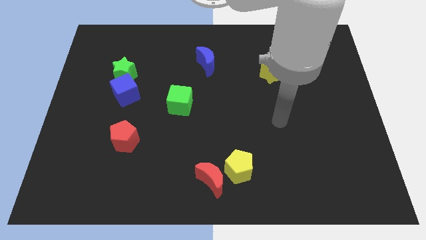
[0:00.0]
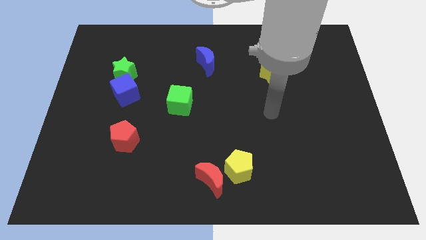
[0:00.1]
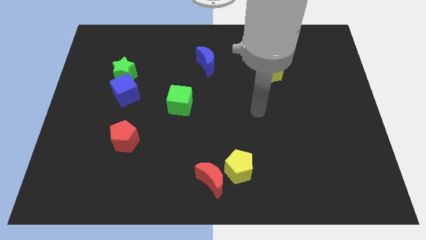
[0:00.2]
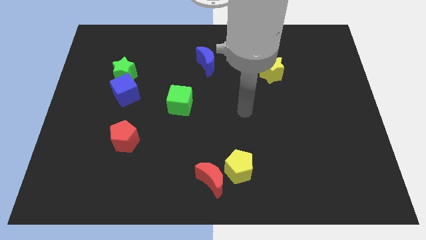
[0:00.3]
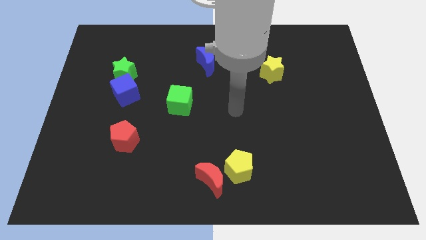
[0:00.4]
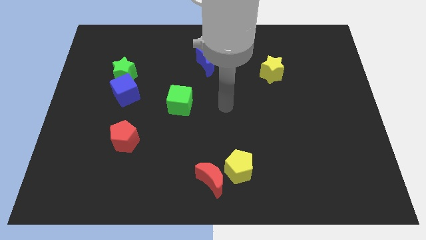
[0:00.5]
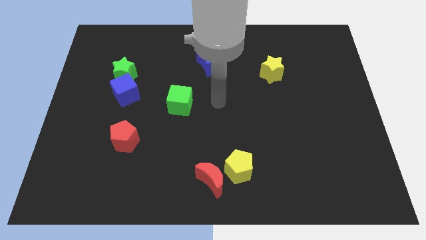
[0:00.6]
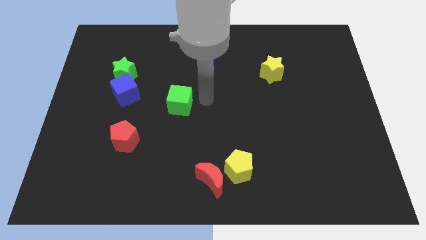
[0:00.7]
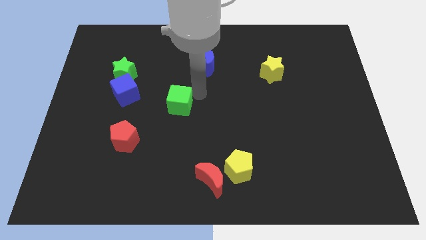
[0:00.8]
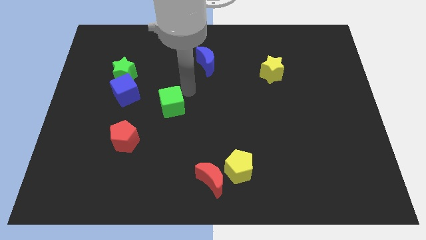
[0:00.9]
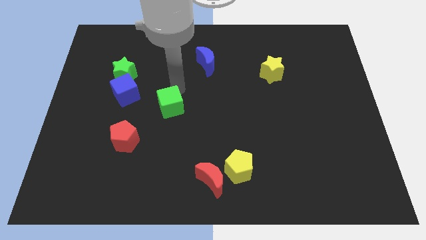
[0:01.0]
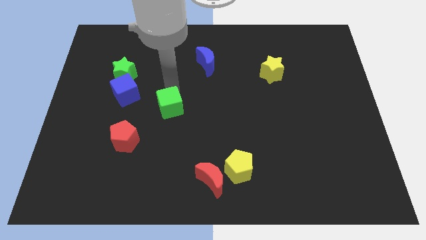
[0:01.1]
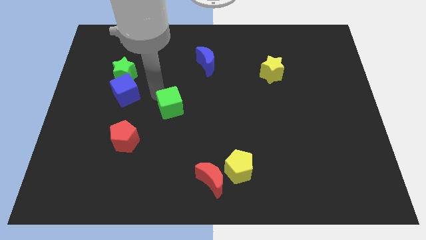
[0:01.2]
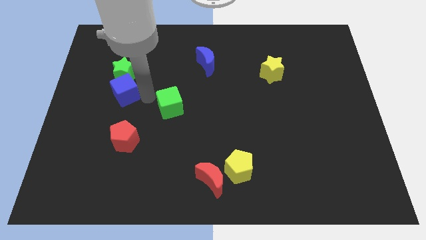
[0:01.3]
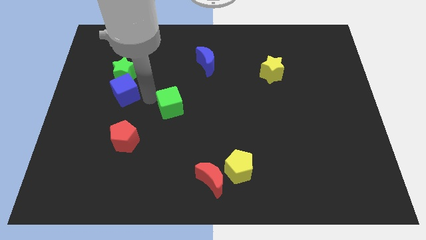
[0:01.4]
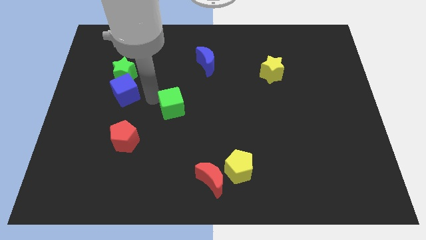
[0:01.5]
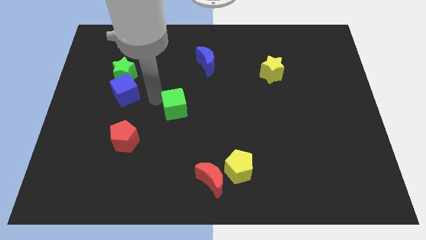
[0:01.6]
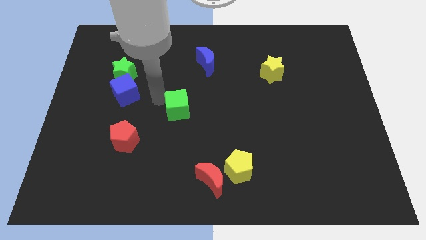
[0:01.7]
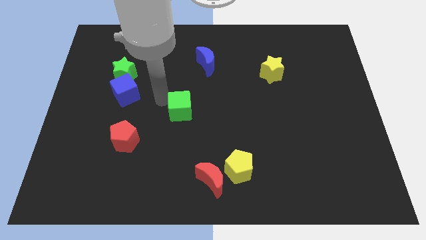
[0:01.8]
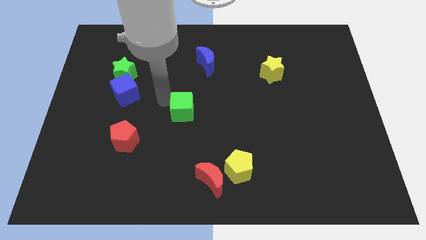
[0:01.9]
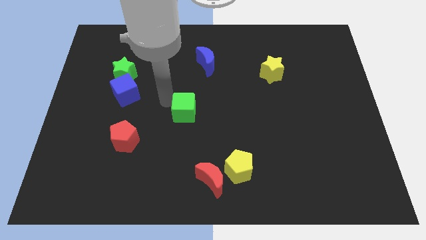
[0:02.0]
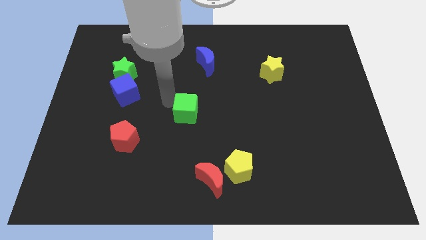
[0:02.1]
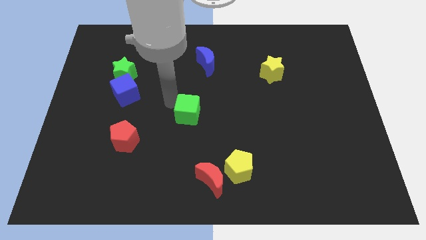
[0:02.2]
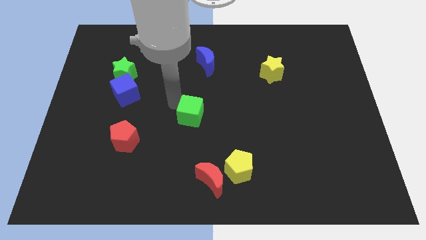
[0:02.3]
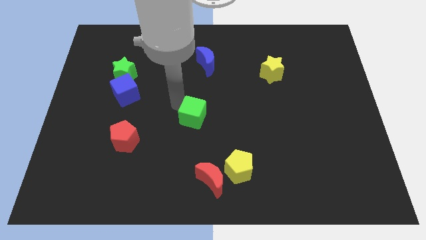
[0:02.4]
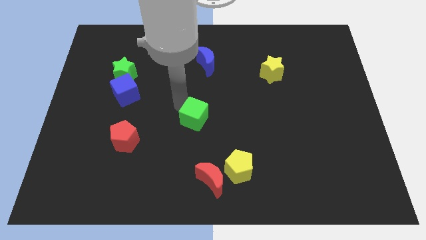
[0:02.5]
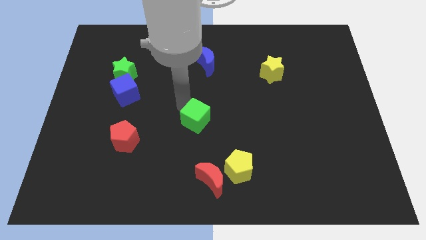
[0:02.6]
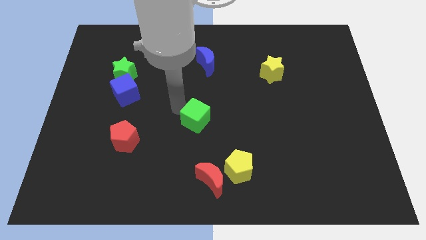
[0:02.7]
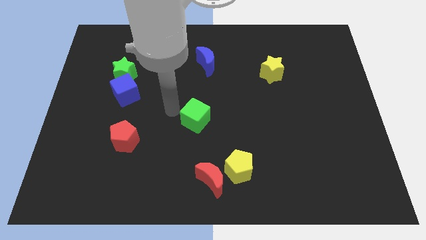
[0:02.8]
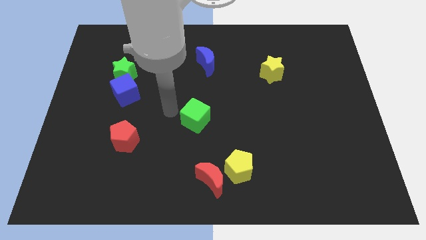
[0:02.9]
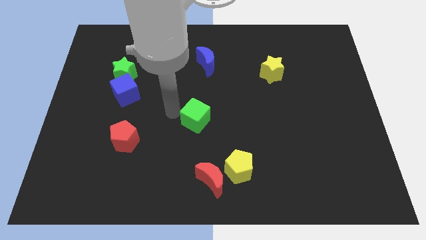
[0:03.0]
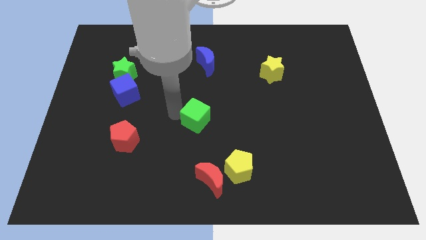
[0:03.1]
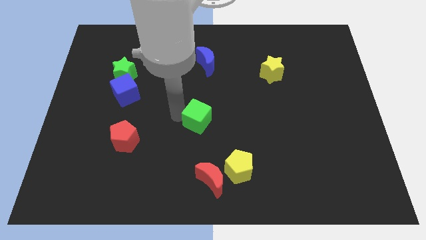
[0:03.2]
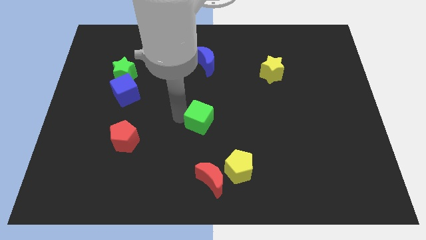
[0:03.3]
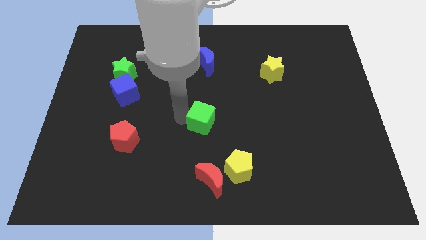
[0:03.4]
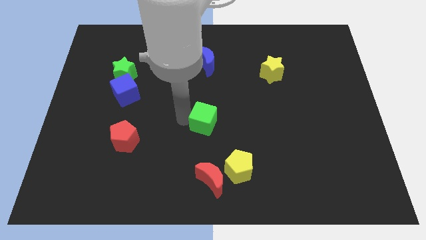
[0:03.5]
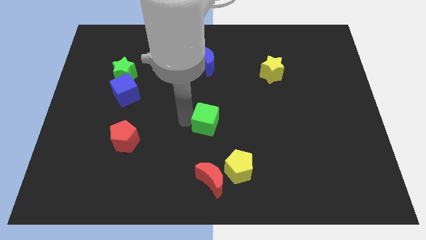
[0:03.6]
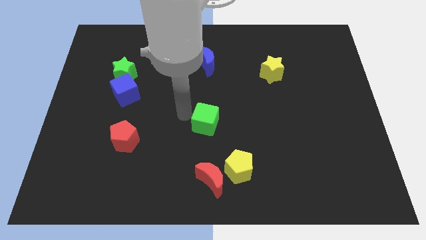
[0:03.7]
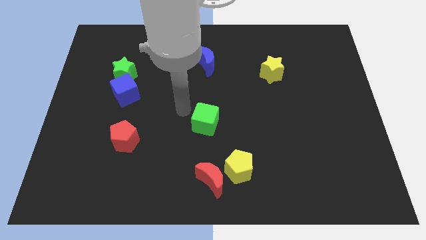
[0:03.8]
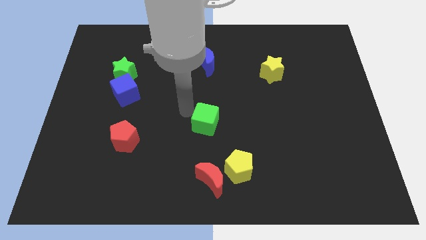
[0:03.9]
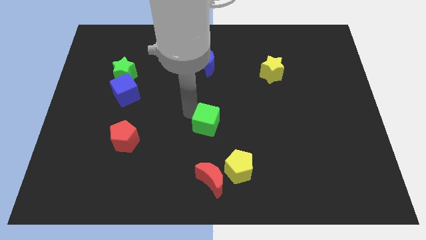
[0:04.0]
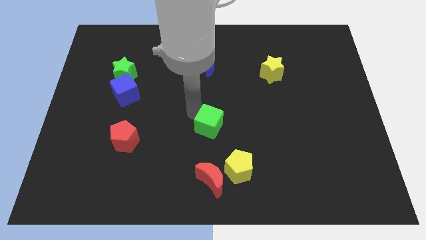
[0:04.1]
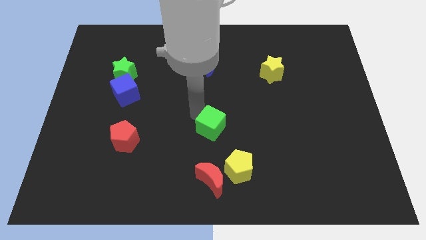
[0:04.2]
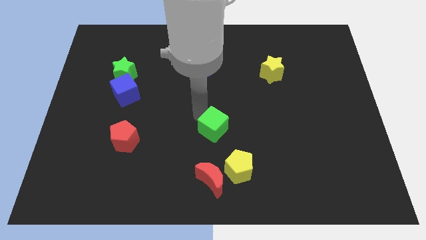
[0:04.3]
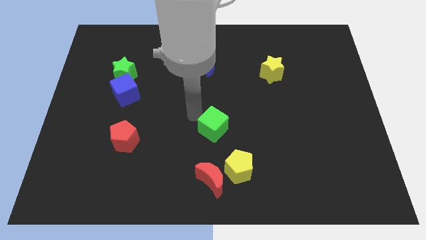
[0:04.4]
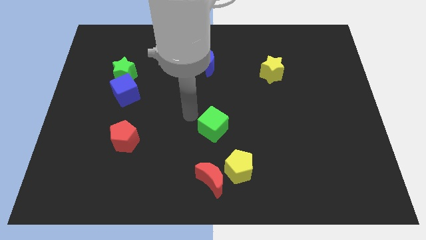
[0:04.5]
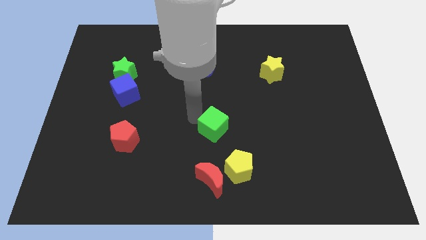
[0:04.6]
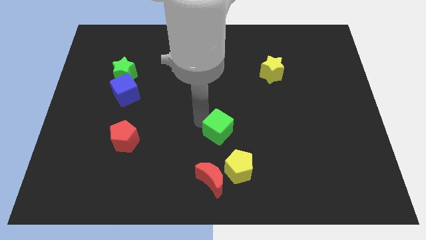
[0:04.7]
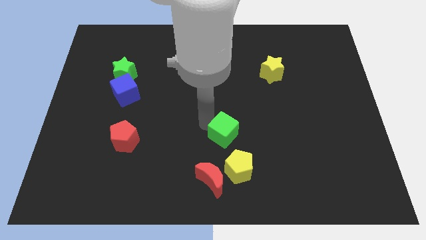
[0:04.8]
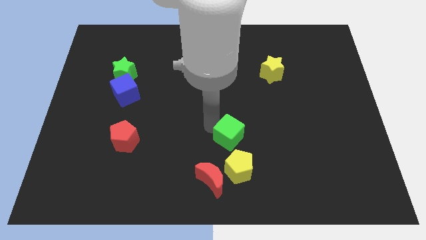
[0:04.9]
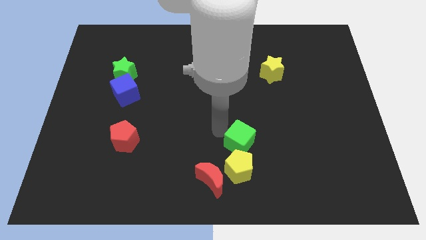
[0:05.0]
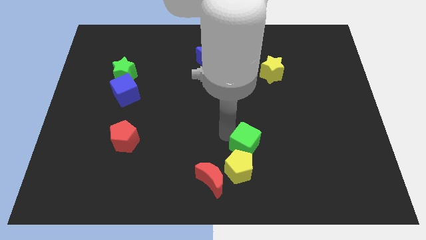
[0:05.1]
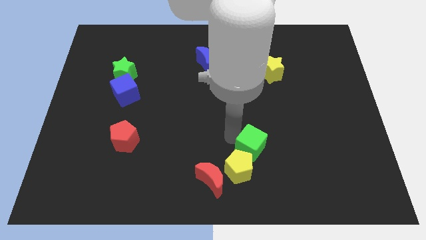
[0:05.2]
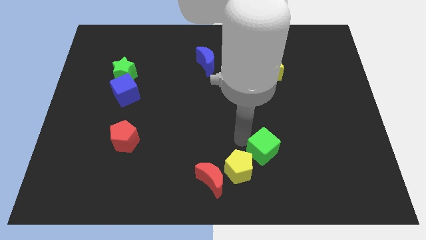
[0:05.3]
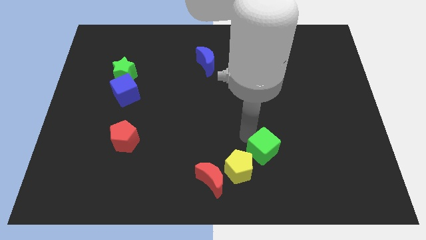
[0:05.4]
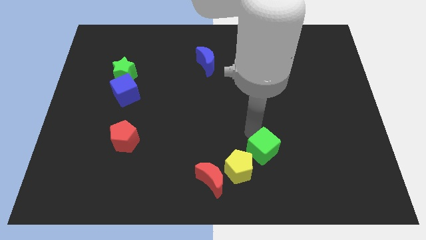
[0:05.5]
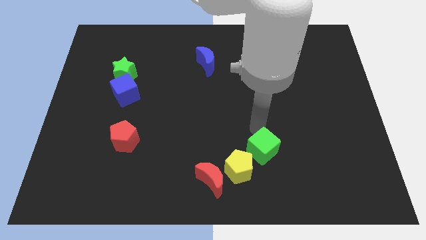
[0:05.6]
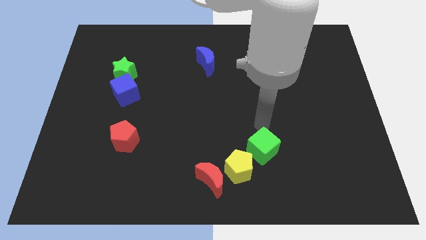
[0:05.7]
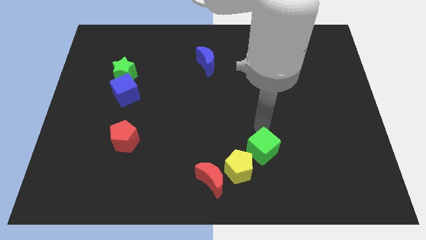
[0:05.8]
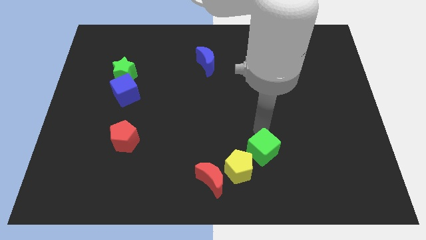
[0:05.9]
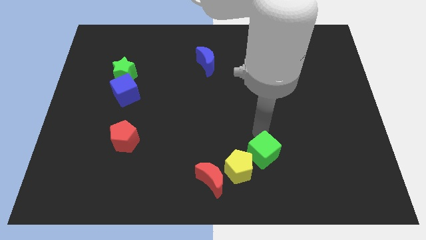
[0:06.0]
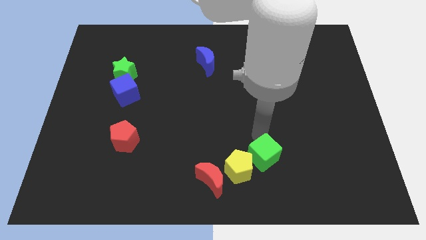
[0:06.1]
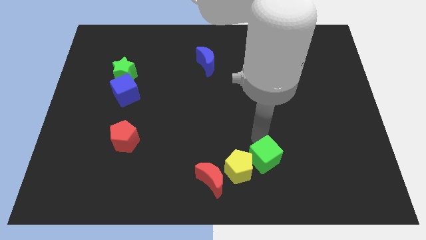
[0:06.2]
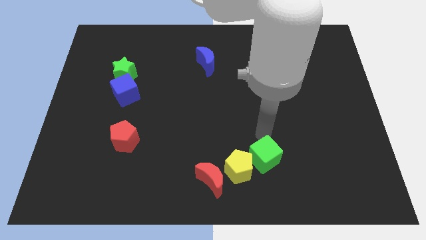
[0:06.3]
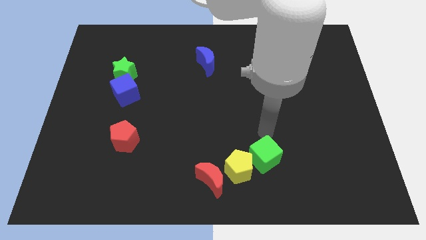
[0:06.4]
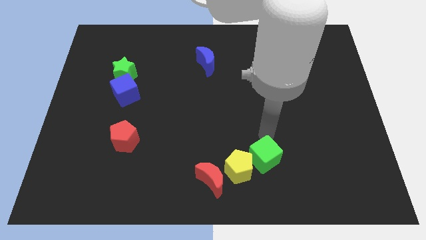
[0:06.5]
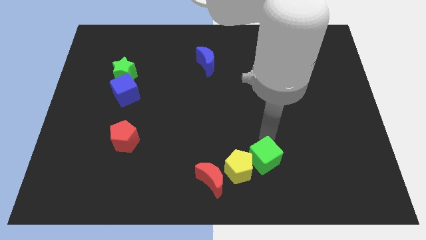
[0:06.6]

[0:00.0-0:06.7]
slide the green cube just right of the red moon
